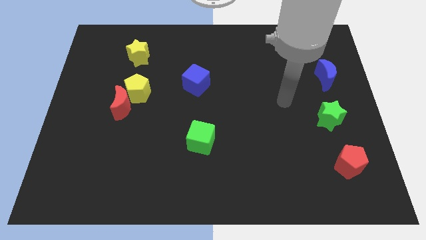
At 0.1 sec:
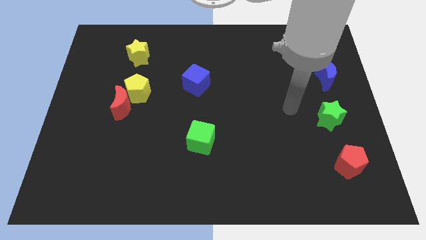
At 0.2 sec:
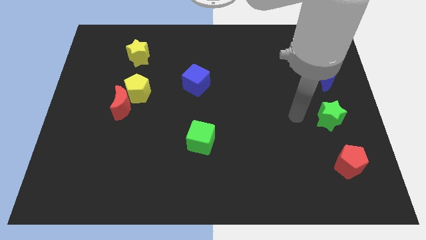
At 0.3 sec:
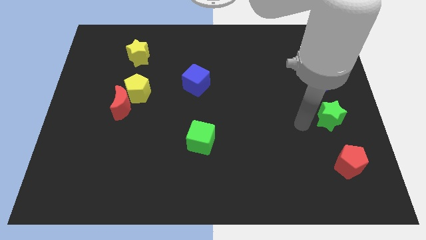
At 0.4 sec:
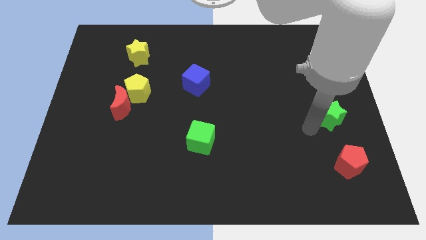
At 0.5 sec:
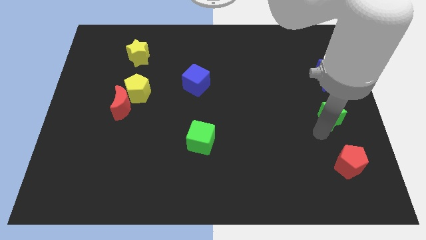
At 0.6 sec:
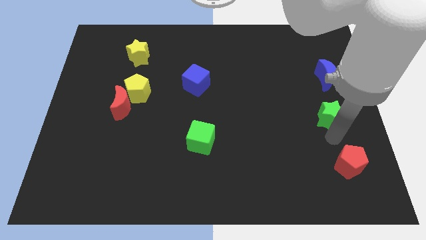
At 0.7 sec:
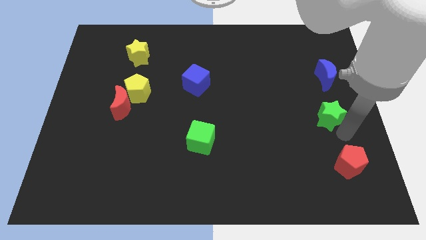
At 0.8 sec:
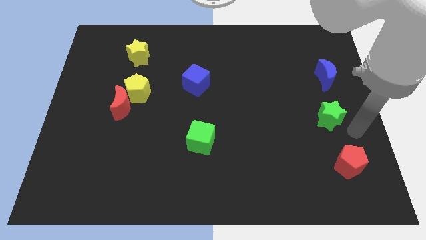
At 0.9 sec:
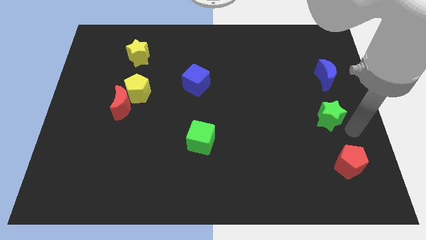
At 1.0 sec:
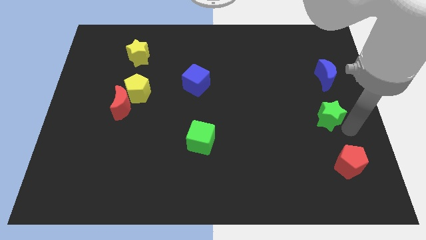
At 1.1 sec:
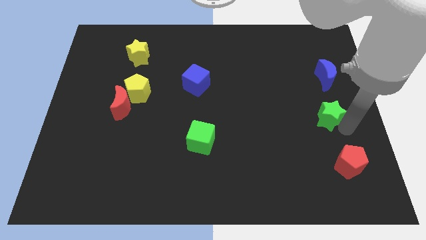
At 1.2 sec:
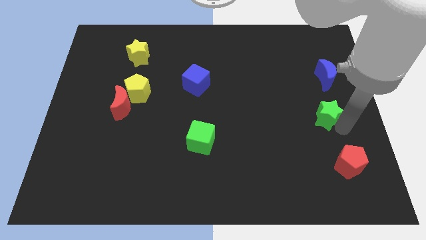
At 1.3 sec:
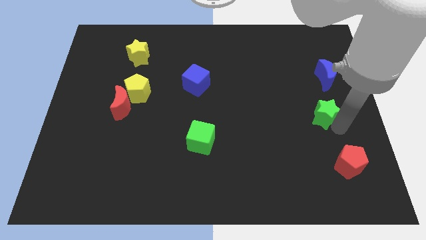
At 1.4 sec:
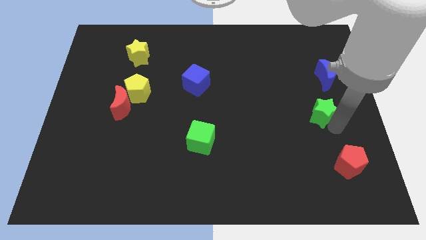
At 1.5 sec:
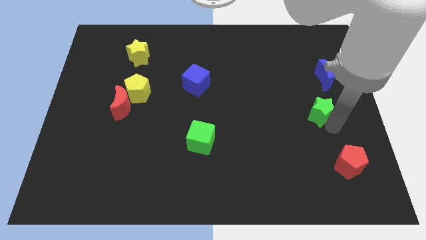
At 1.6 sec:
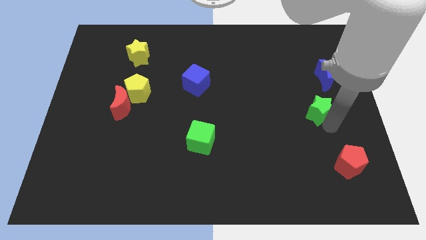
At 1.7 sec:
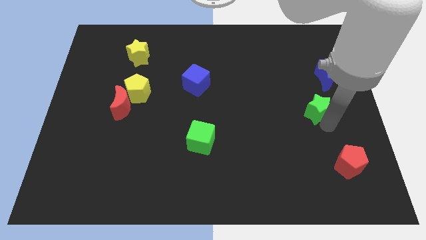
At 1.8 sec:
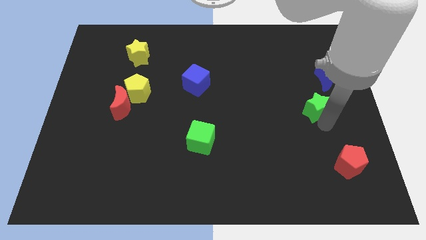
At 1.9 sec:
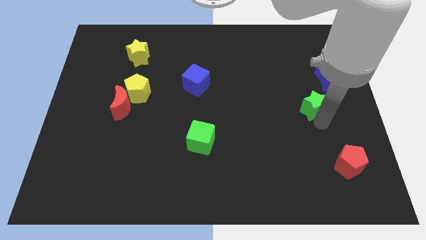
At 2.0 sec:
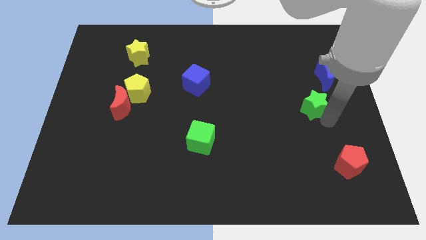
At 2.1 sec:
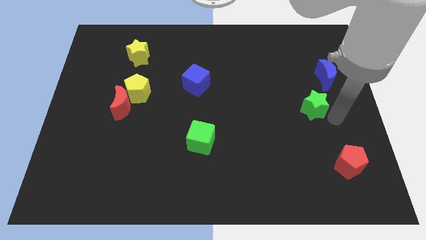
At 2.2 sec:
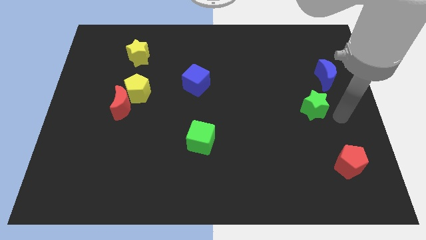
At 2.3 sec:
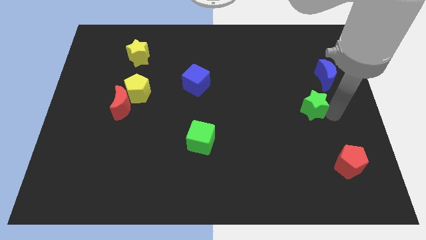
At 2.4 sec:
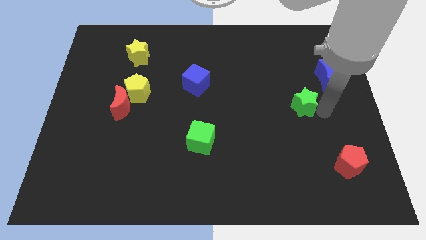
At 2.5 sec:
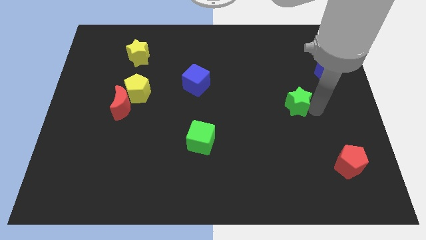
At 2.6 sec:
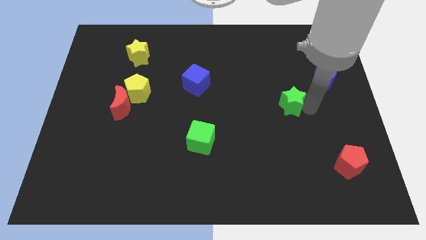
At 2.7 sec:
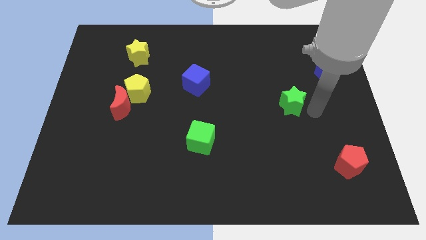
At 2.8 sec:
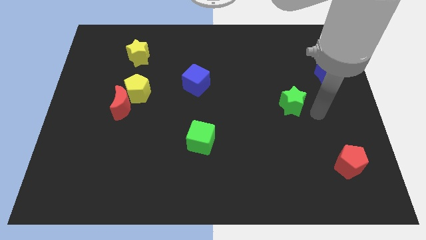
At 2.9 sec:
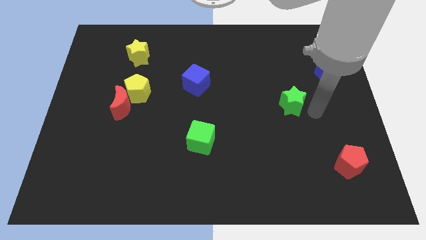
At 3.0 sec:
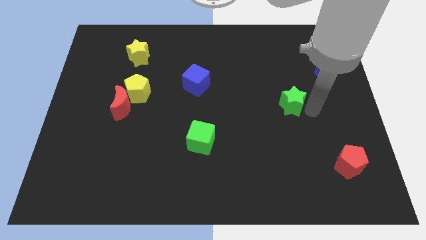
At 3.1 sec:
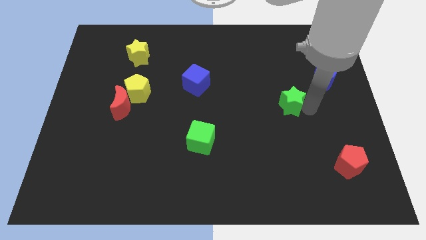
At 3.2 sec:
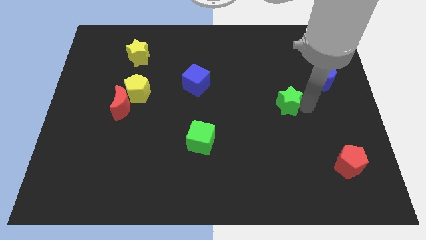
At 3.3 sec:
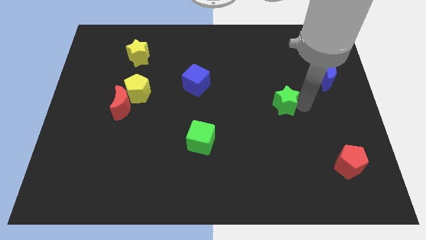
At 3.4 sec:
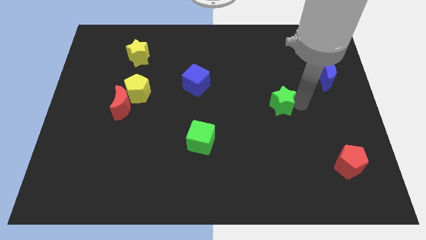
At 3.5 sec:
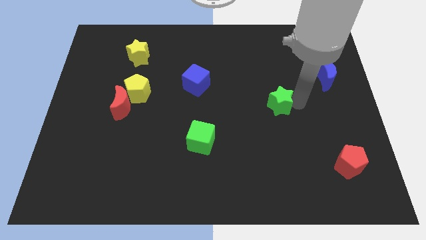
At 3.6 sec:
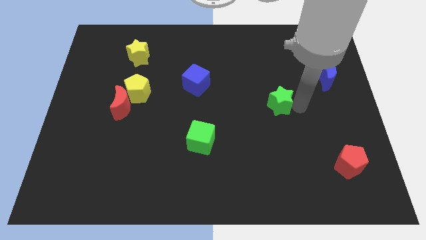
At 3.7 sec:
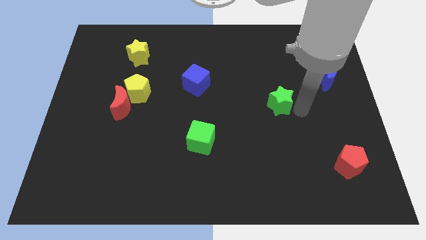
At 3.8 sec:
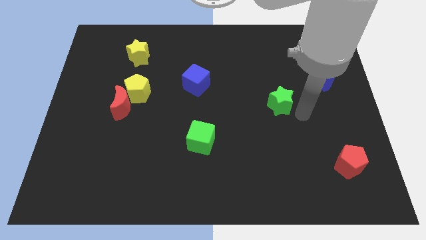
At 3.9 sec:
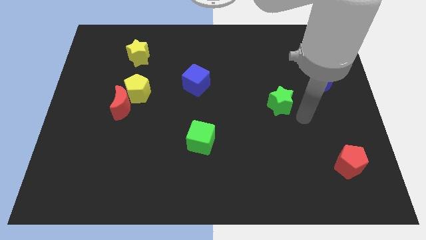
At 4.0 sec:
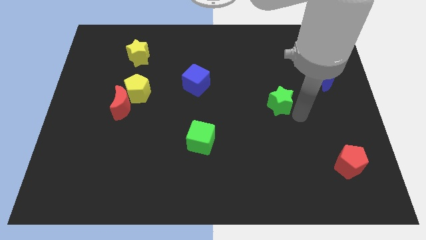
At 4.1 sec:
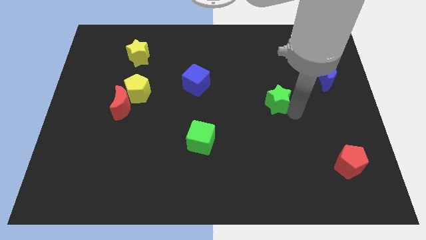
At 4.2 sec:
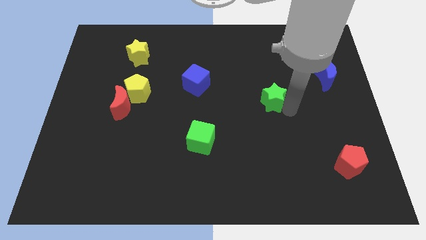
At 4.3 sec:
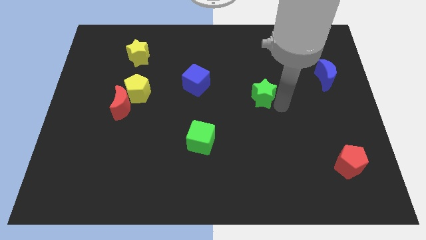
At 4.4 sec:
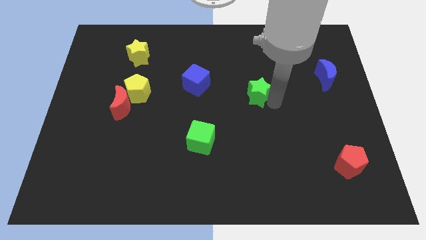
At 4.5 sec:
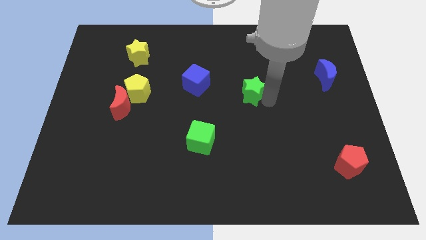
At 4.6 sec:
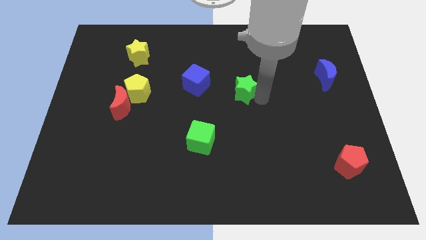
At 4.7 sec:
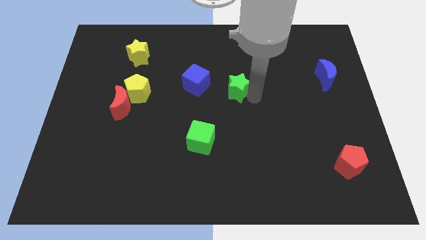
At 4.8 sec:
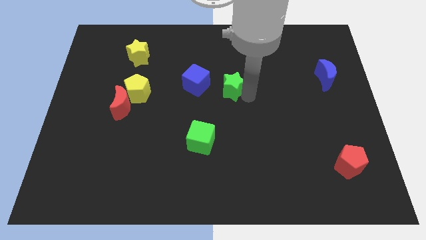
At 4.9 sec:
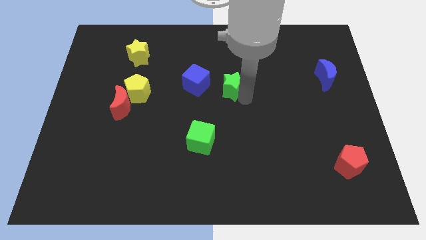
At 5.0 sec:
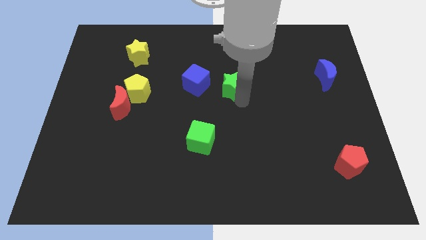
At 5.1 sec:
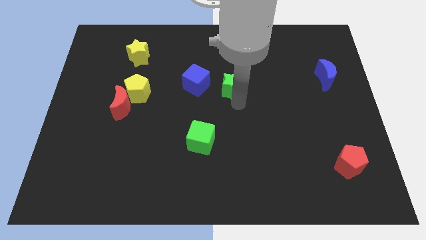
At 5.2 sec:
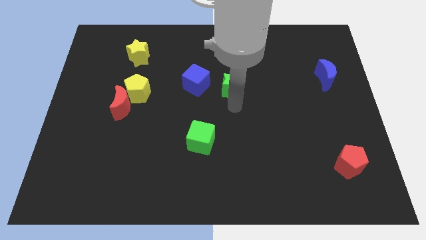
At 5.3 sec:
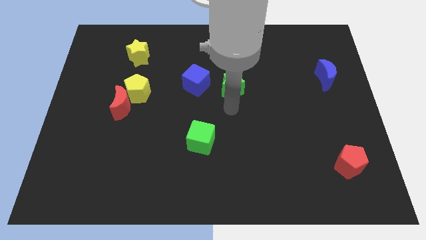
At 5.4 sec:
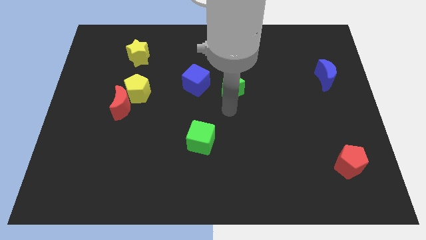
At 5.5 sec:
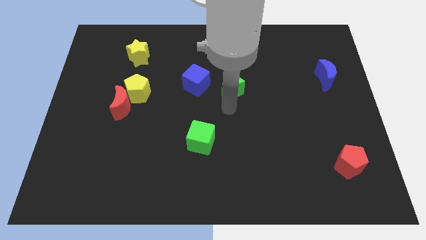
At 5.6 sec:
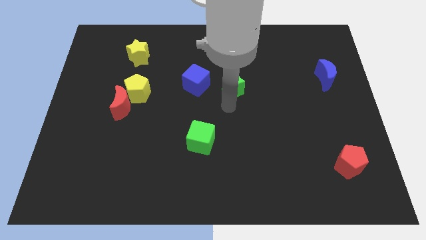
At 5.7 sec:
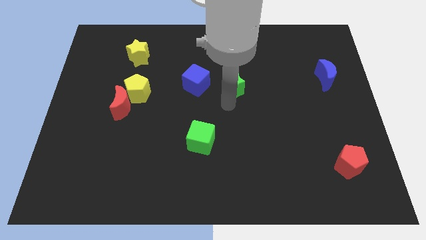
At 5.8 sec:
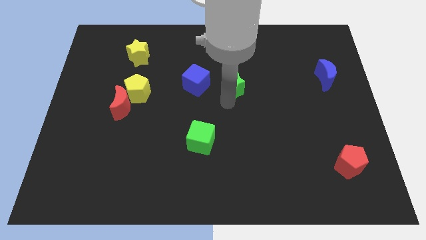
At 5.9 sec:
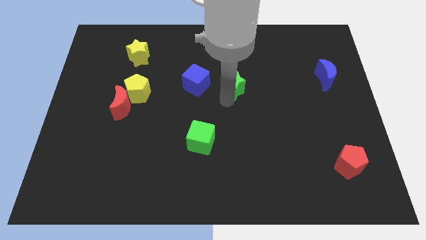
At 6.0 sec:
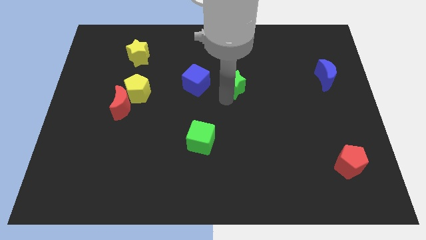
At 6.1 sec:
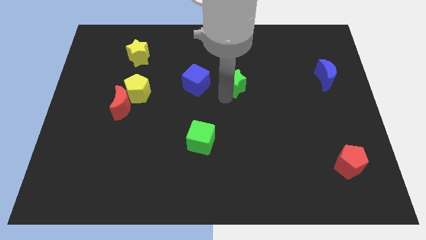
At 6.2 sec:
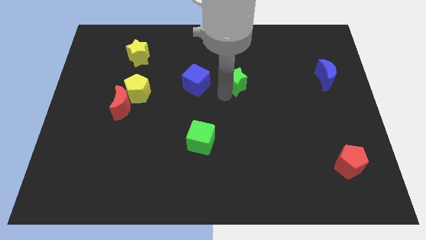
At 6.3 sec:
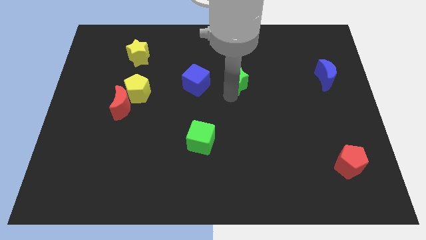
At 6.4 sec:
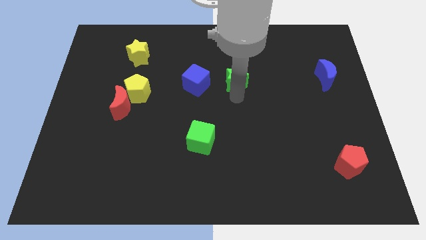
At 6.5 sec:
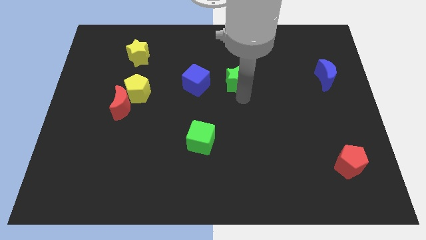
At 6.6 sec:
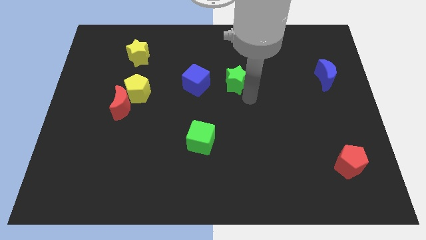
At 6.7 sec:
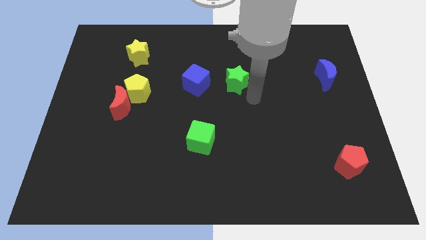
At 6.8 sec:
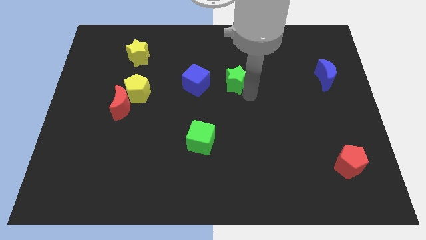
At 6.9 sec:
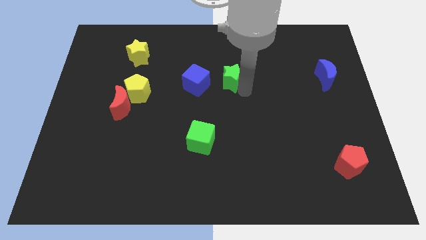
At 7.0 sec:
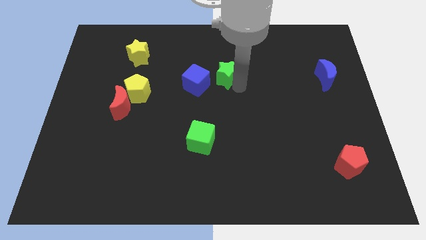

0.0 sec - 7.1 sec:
push the green star to the top right side of the blue cube
